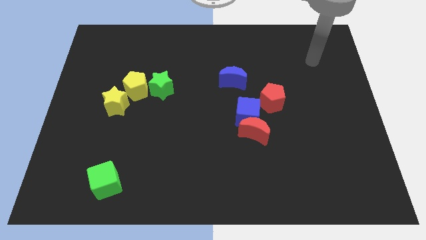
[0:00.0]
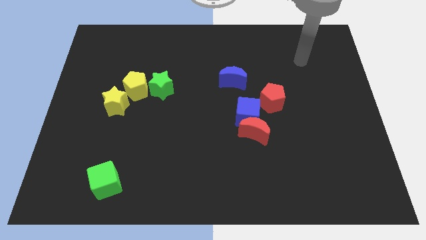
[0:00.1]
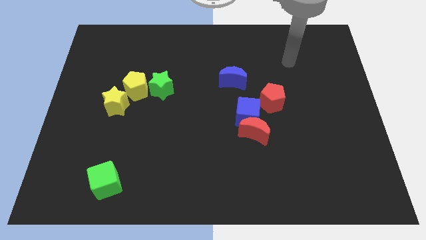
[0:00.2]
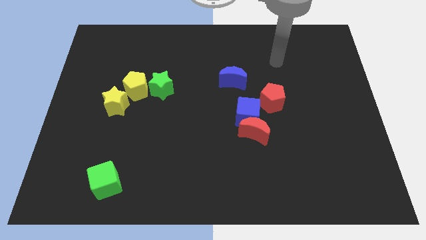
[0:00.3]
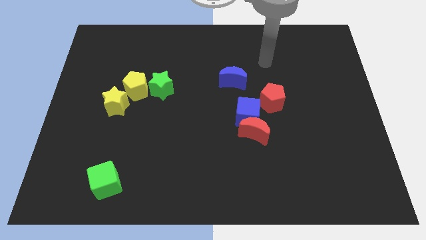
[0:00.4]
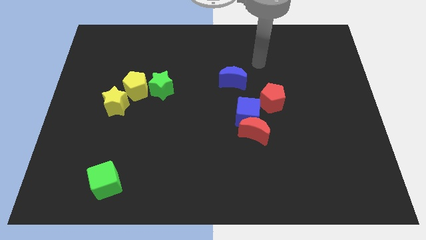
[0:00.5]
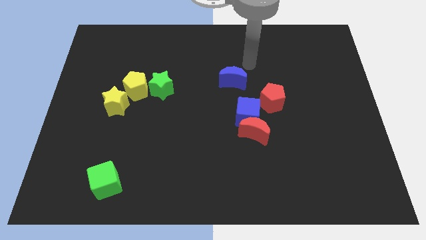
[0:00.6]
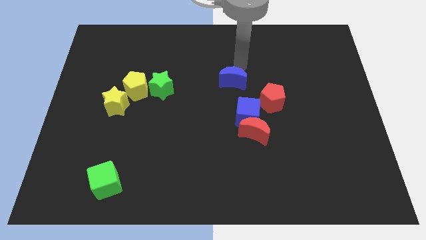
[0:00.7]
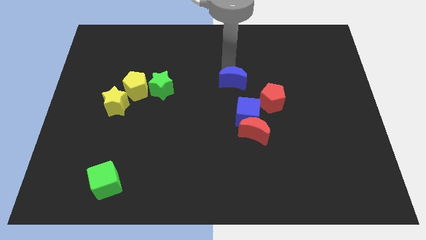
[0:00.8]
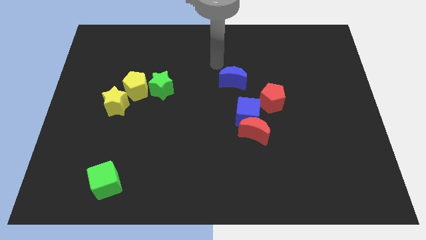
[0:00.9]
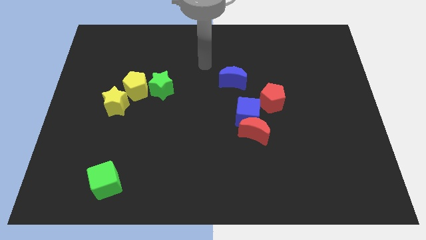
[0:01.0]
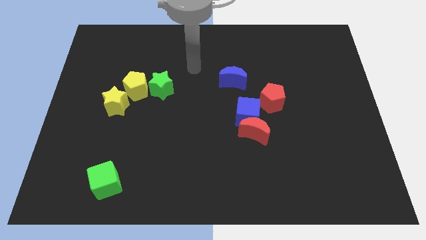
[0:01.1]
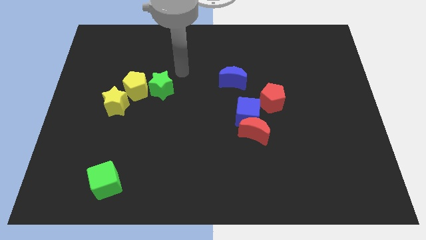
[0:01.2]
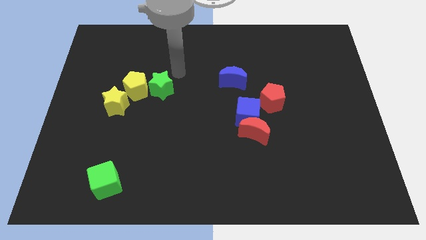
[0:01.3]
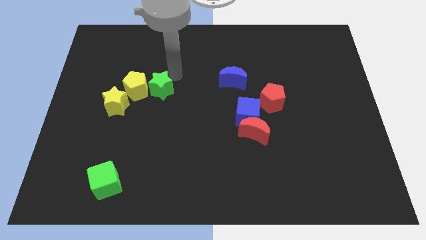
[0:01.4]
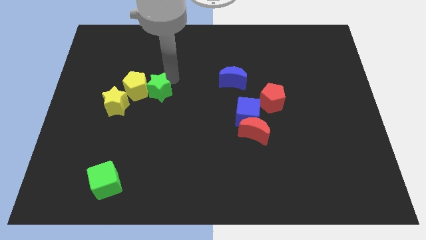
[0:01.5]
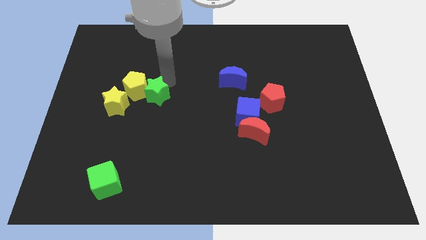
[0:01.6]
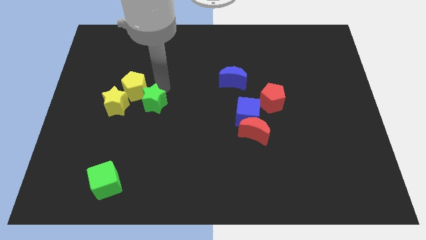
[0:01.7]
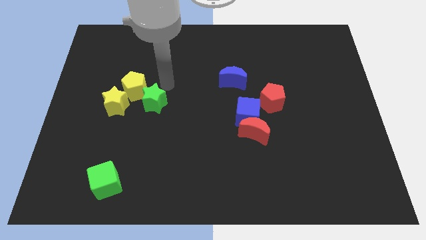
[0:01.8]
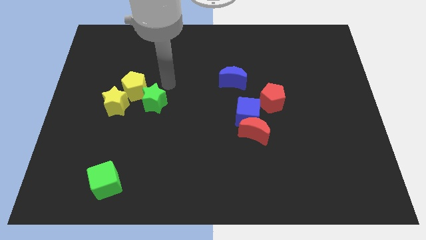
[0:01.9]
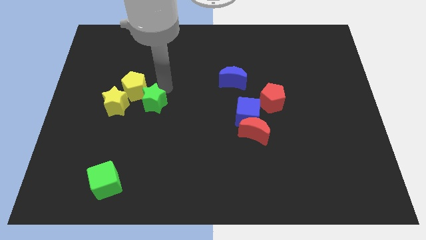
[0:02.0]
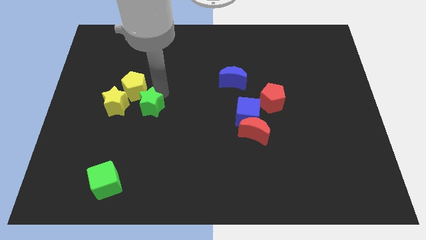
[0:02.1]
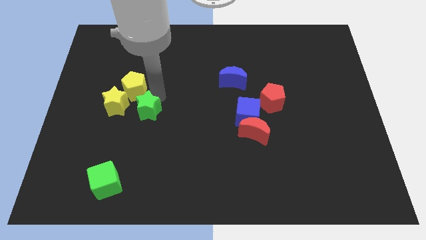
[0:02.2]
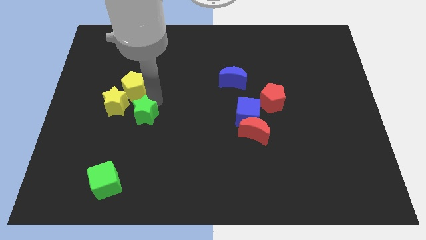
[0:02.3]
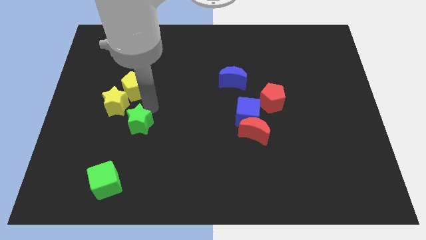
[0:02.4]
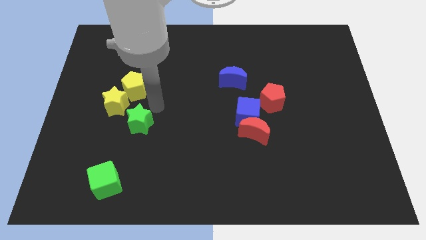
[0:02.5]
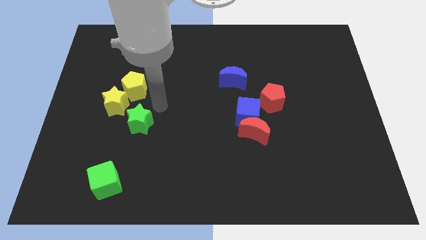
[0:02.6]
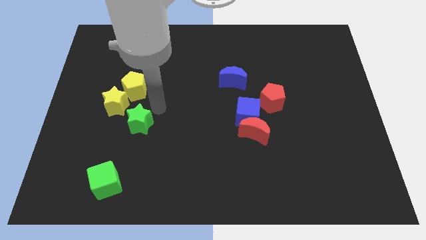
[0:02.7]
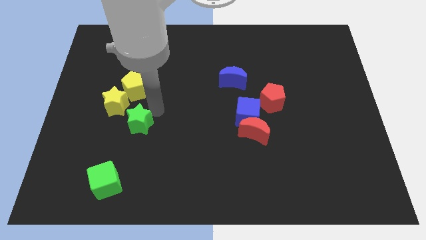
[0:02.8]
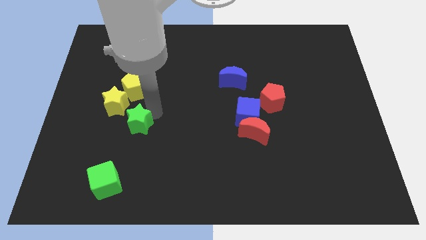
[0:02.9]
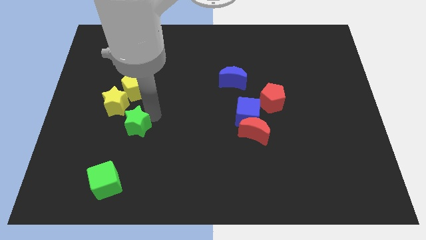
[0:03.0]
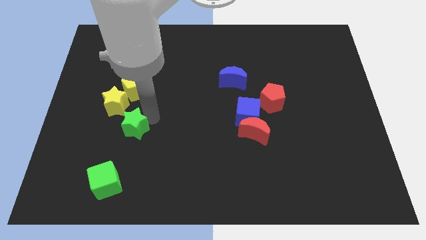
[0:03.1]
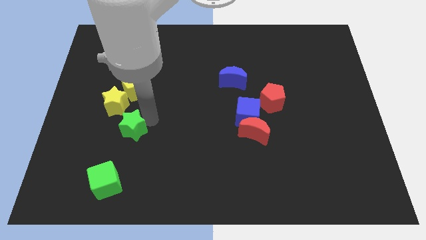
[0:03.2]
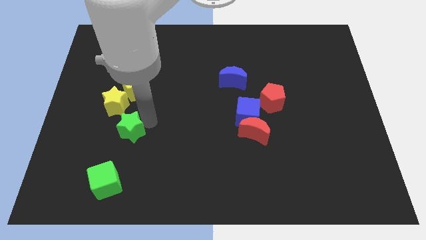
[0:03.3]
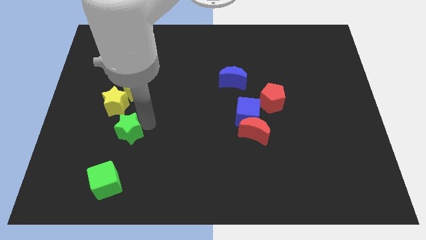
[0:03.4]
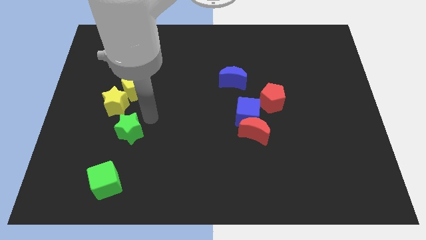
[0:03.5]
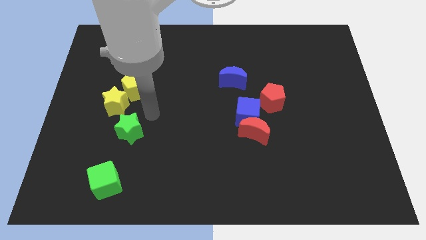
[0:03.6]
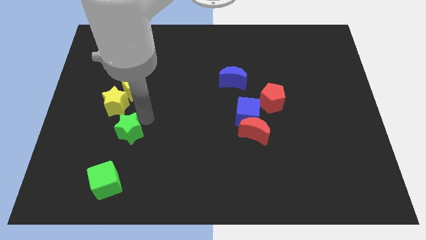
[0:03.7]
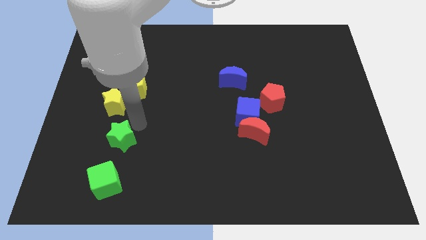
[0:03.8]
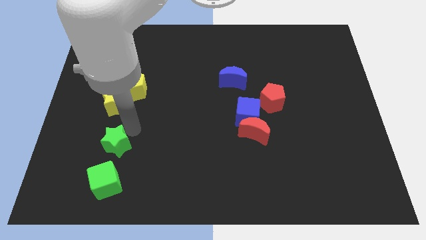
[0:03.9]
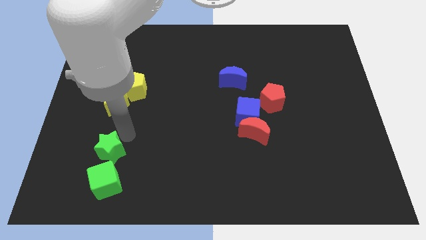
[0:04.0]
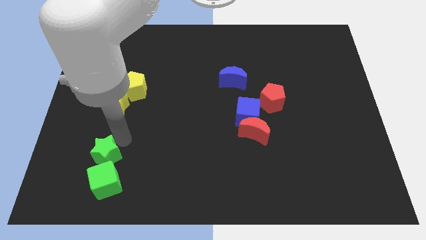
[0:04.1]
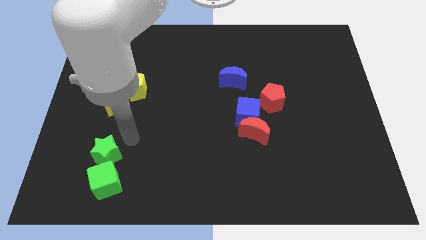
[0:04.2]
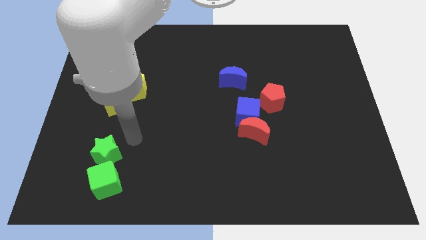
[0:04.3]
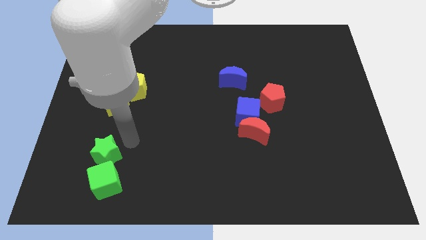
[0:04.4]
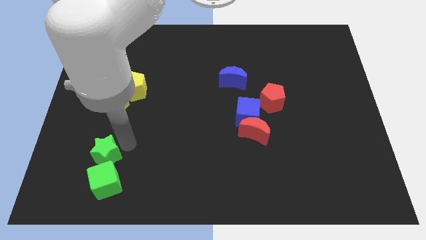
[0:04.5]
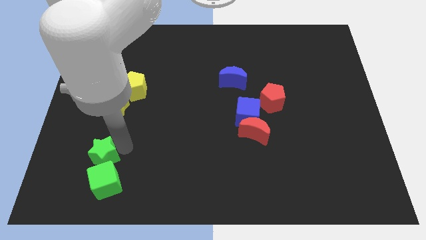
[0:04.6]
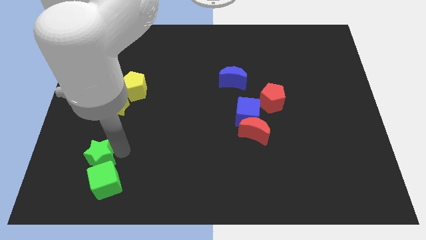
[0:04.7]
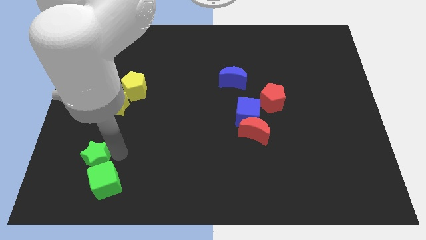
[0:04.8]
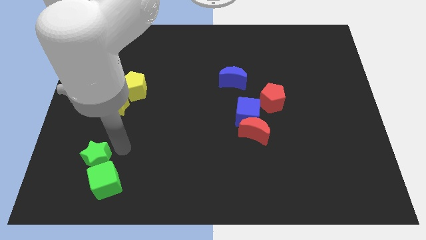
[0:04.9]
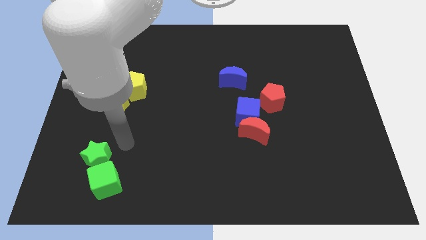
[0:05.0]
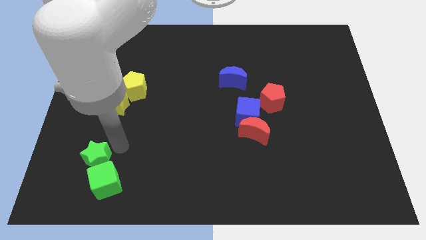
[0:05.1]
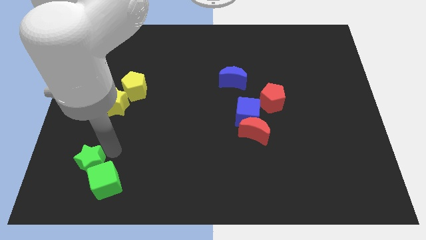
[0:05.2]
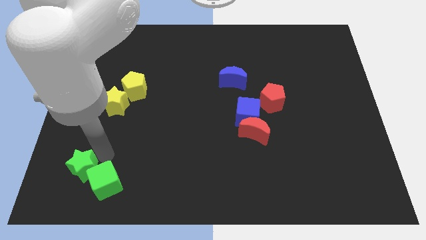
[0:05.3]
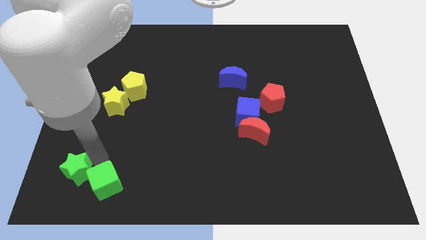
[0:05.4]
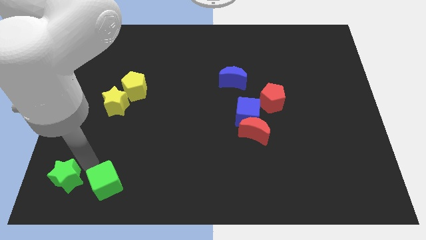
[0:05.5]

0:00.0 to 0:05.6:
put the green star to the lower left corner
